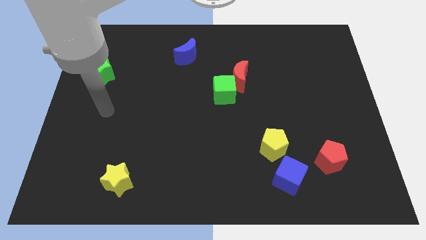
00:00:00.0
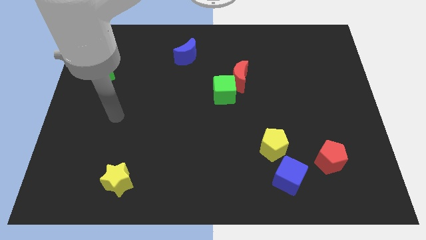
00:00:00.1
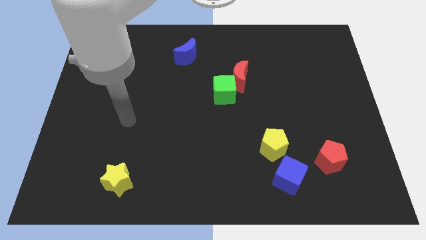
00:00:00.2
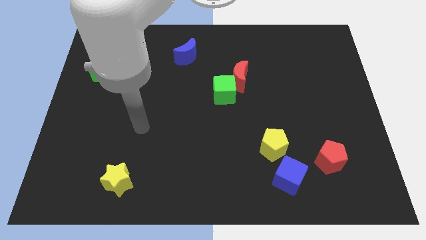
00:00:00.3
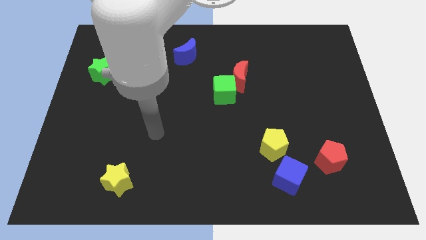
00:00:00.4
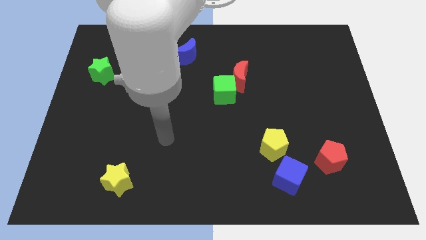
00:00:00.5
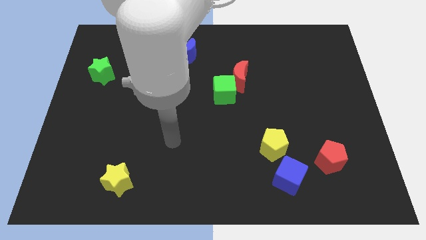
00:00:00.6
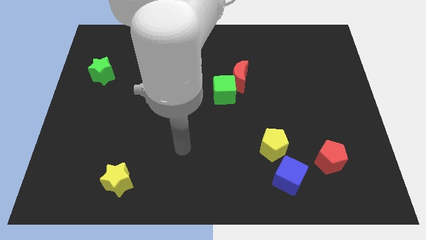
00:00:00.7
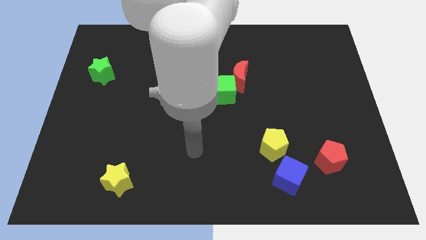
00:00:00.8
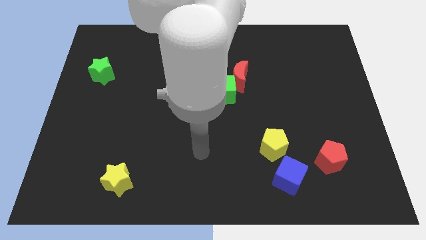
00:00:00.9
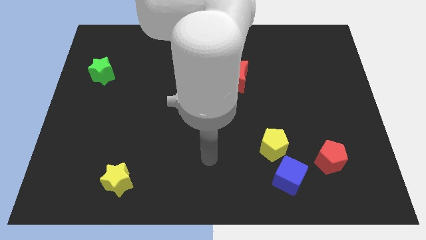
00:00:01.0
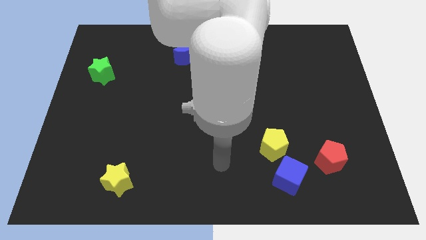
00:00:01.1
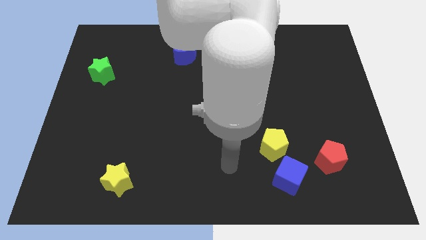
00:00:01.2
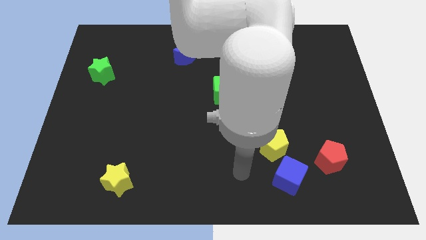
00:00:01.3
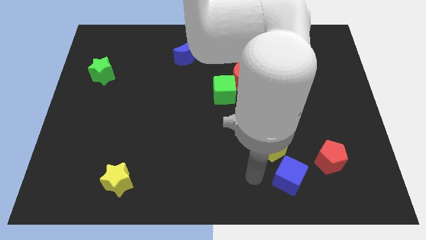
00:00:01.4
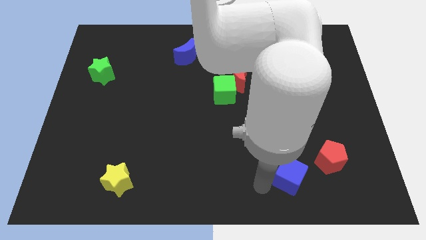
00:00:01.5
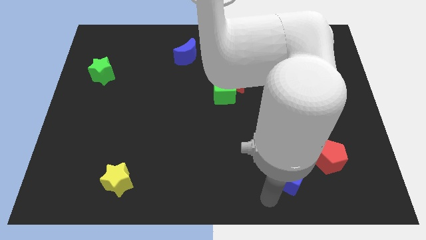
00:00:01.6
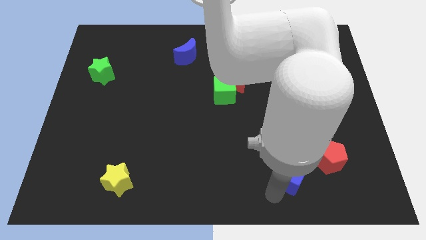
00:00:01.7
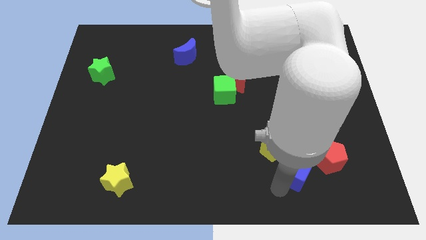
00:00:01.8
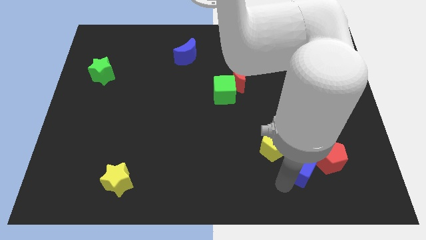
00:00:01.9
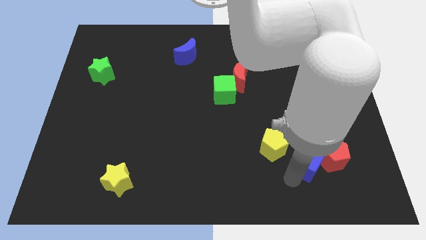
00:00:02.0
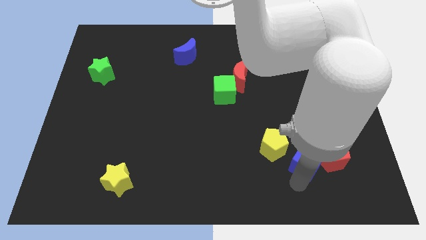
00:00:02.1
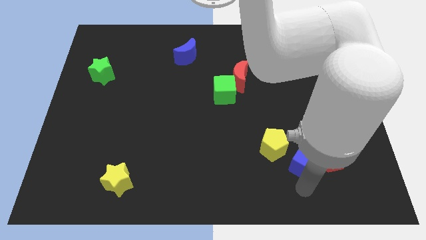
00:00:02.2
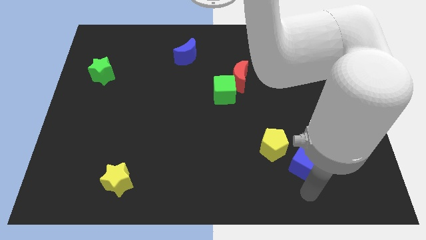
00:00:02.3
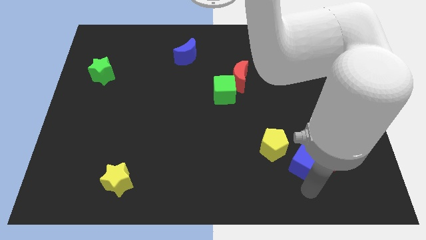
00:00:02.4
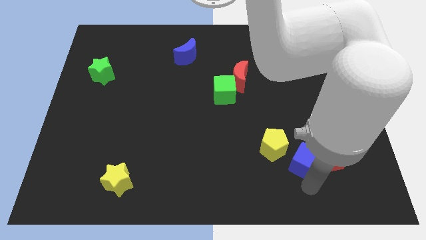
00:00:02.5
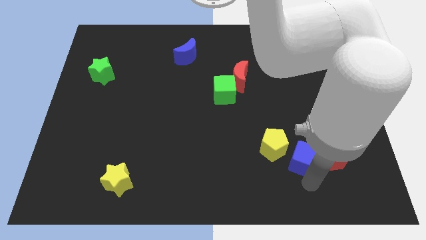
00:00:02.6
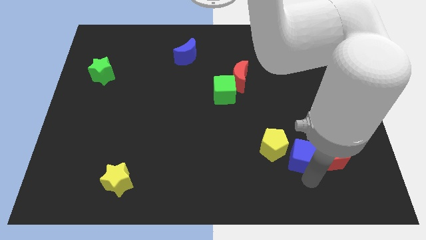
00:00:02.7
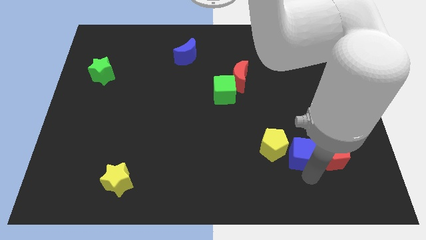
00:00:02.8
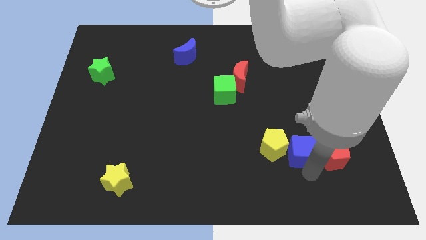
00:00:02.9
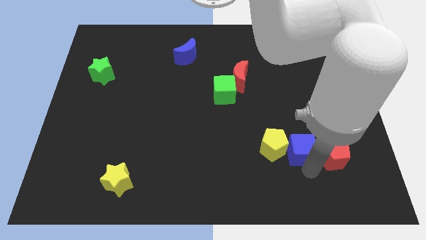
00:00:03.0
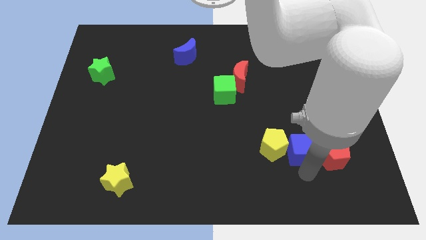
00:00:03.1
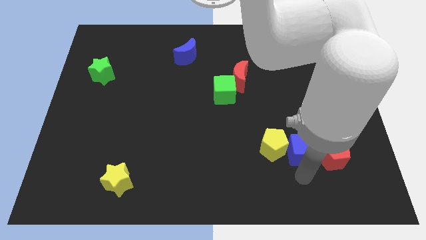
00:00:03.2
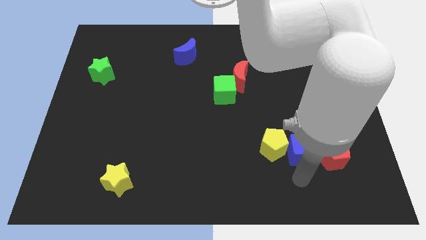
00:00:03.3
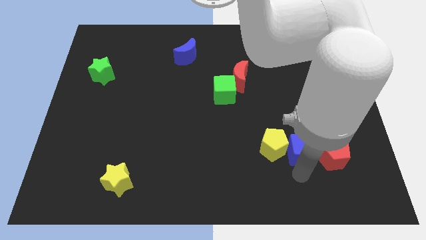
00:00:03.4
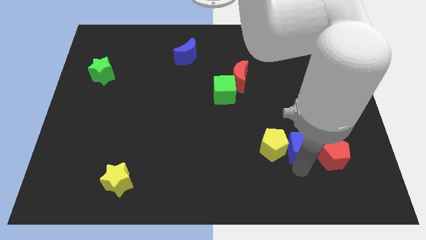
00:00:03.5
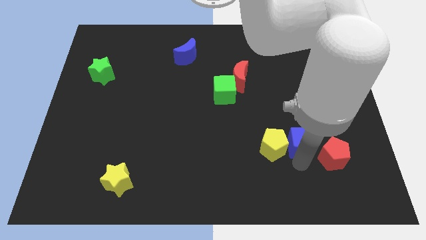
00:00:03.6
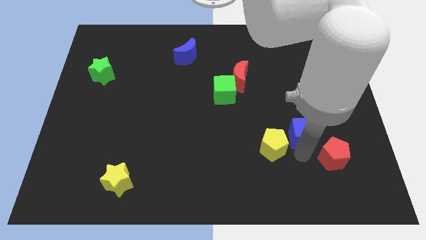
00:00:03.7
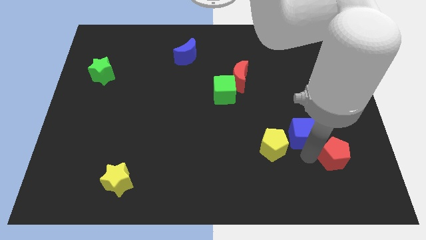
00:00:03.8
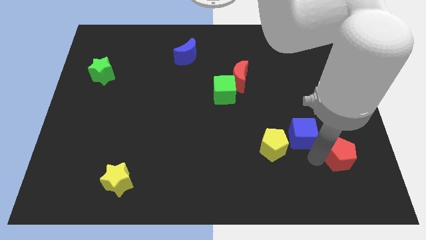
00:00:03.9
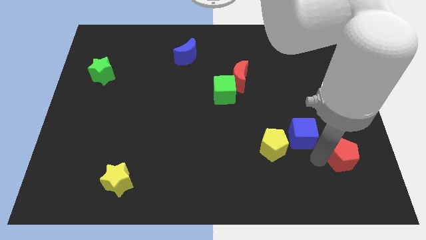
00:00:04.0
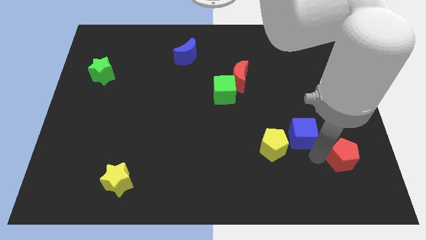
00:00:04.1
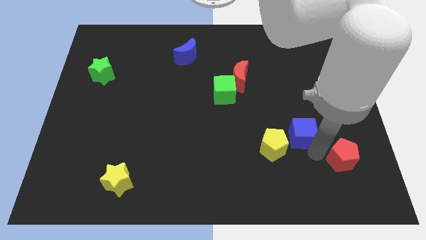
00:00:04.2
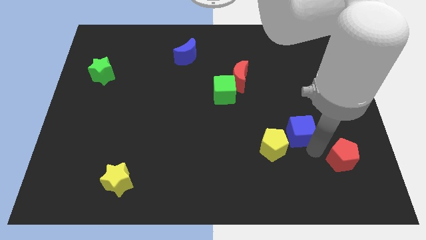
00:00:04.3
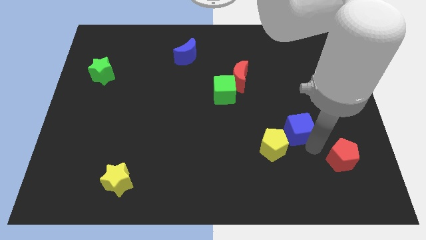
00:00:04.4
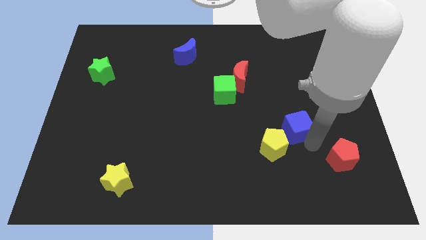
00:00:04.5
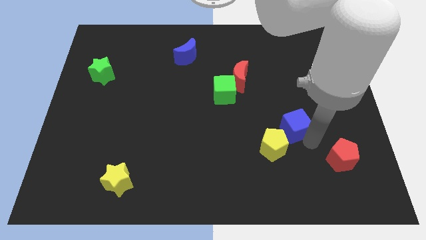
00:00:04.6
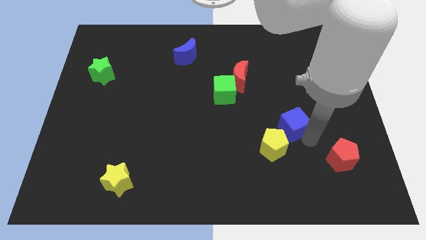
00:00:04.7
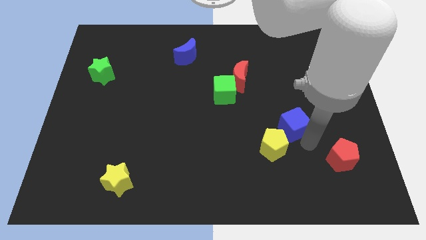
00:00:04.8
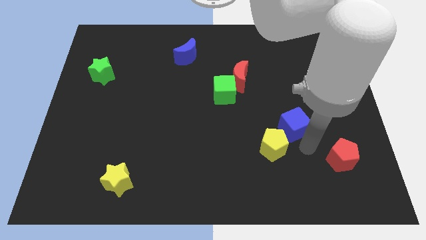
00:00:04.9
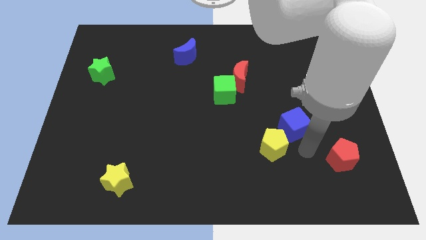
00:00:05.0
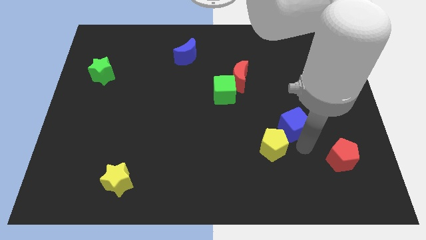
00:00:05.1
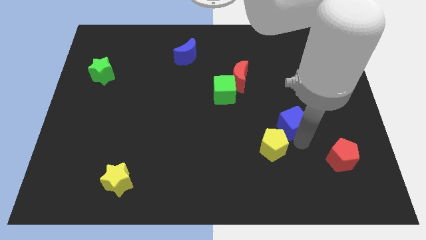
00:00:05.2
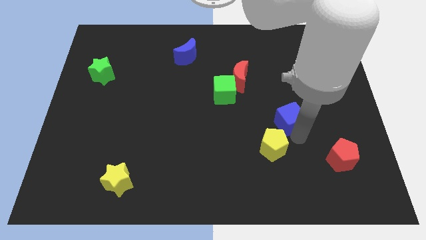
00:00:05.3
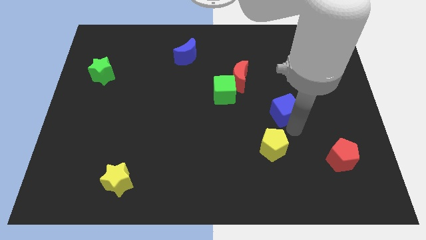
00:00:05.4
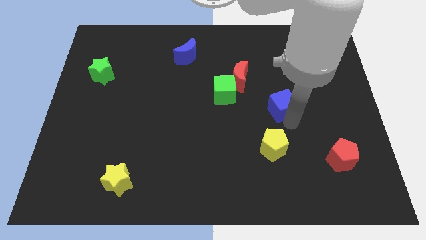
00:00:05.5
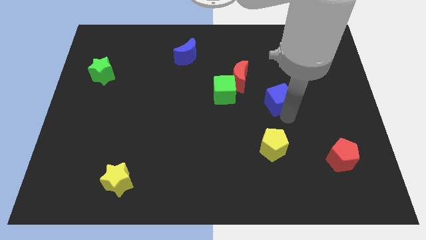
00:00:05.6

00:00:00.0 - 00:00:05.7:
push the blue cube just right of the green cube

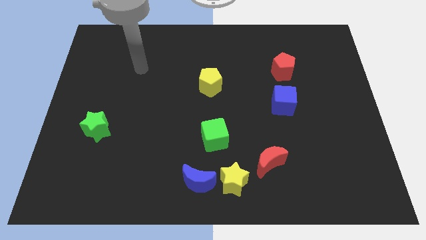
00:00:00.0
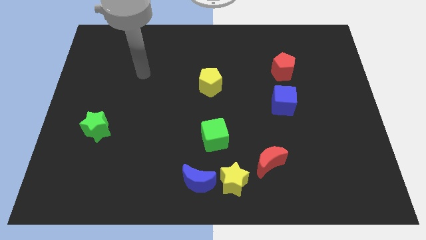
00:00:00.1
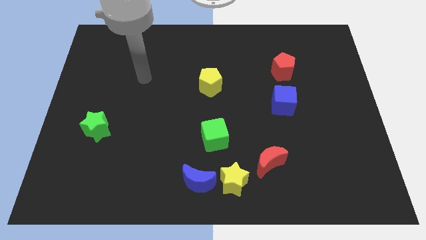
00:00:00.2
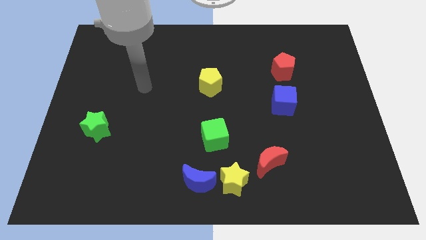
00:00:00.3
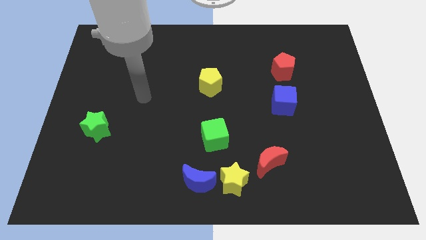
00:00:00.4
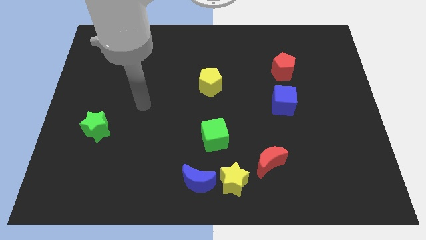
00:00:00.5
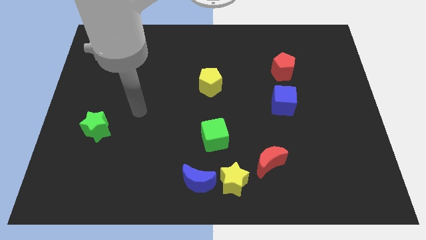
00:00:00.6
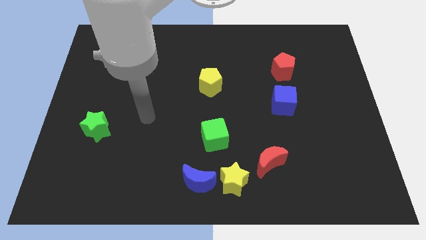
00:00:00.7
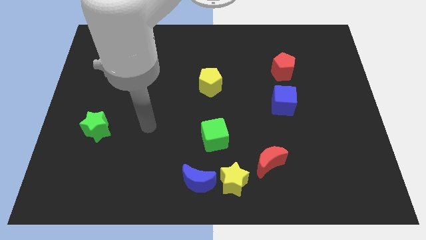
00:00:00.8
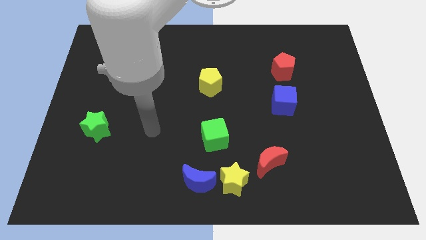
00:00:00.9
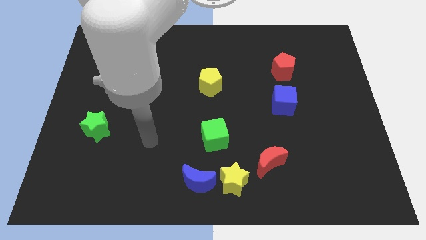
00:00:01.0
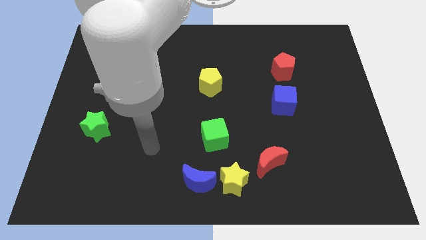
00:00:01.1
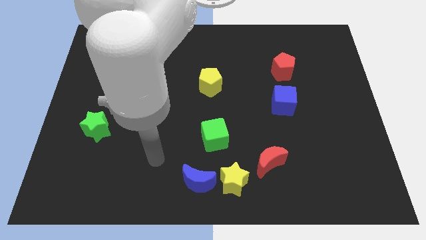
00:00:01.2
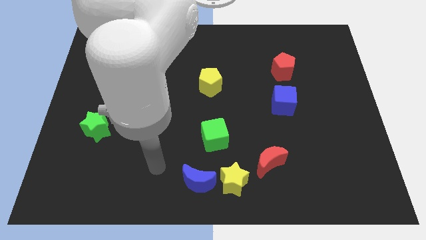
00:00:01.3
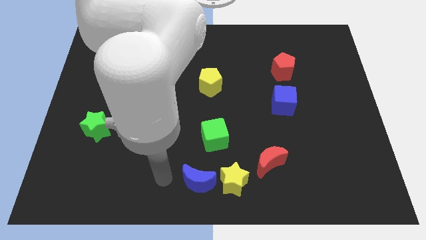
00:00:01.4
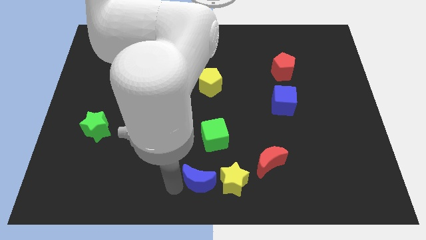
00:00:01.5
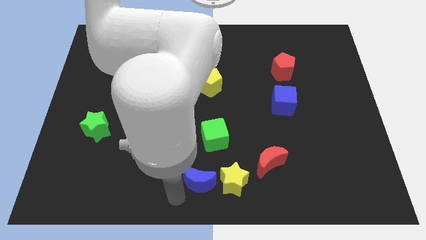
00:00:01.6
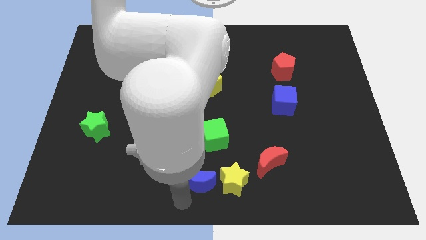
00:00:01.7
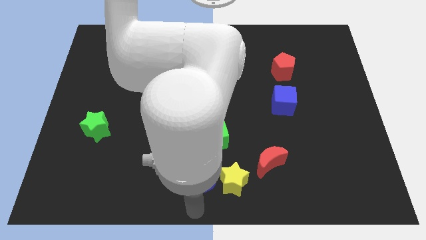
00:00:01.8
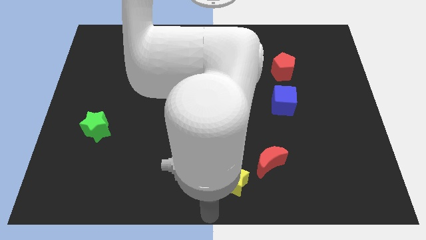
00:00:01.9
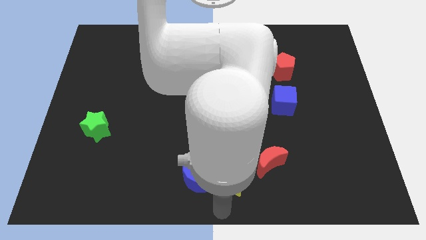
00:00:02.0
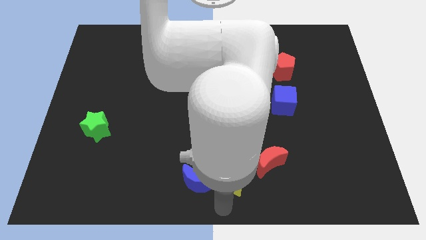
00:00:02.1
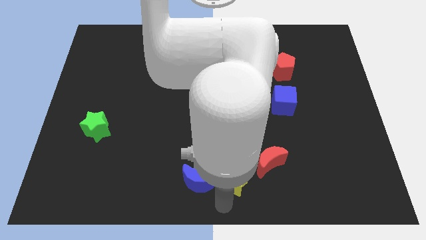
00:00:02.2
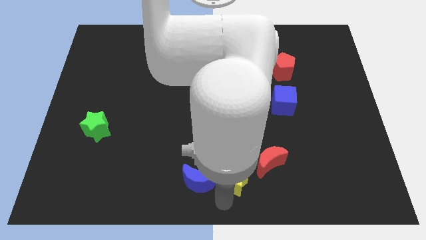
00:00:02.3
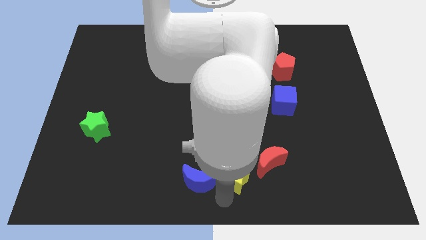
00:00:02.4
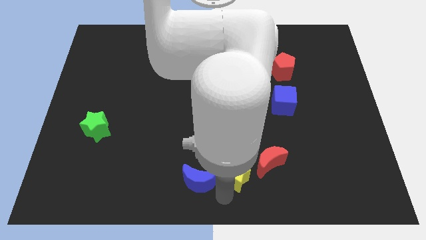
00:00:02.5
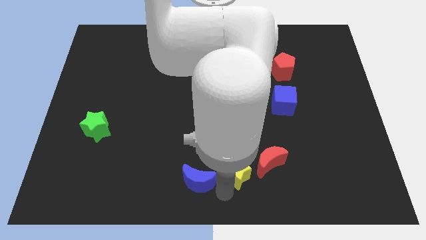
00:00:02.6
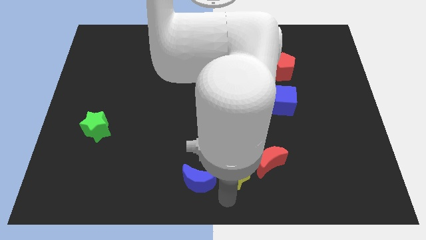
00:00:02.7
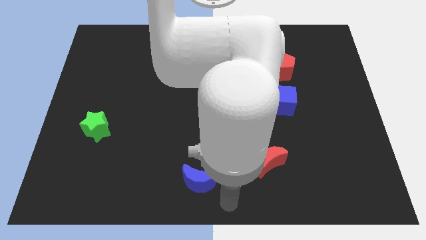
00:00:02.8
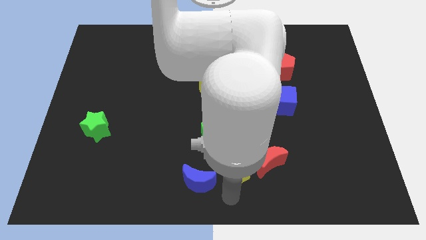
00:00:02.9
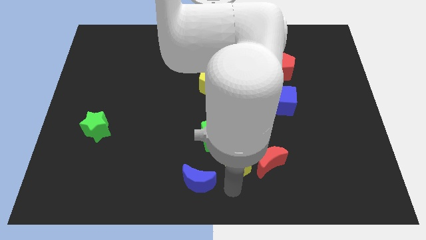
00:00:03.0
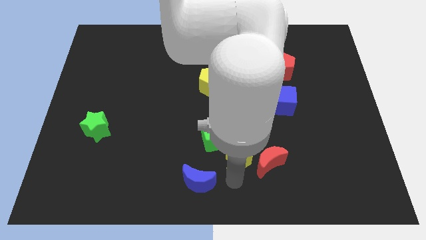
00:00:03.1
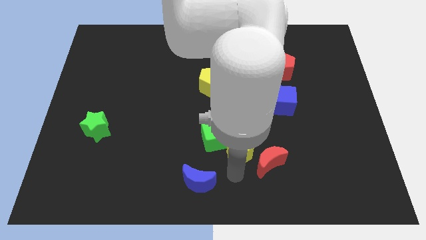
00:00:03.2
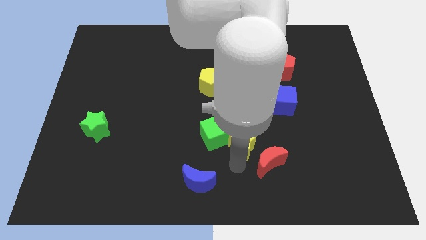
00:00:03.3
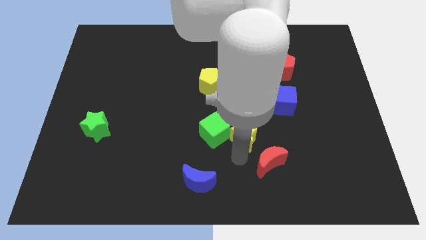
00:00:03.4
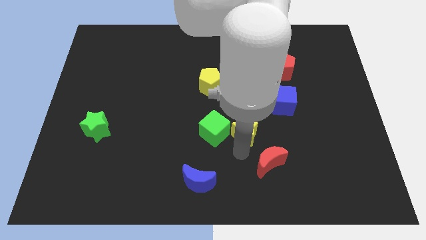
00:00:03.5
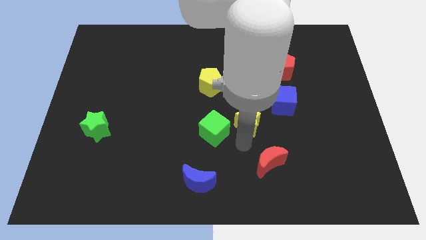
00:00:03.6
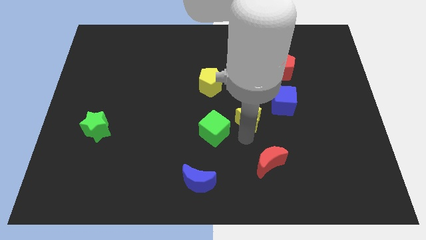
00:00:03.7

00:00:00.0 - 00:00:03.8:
move the yellow star to the left side of the blue cube
